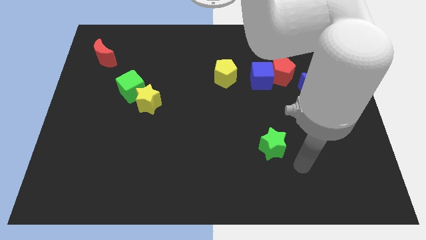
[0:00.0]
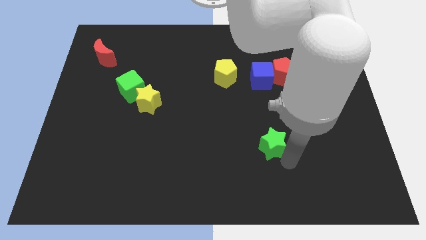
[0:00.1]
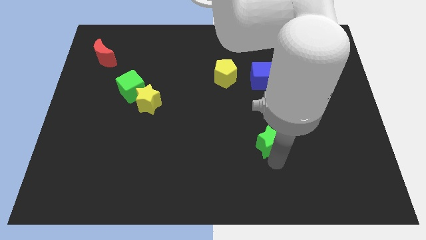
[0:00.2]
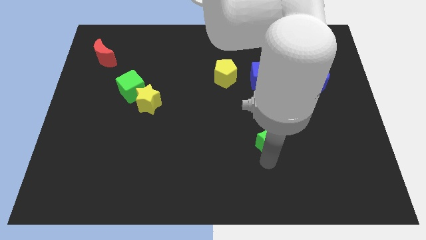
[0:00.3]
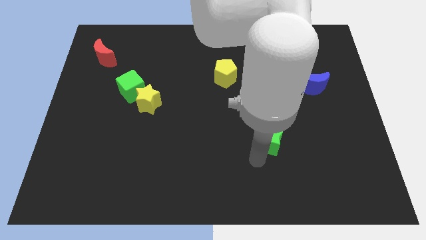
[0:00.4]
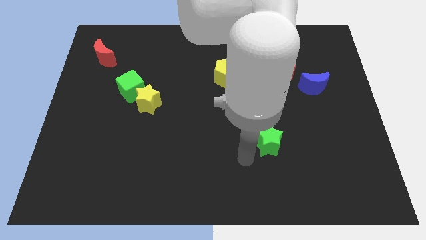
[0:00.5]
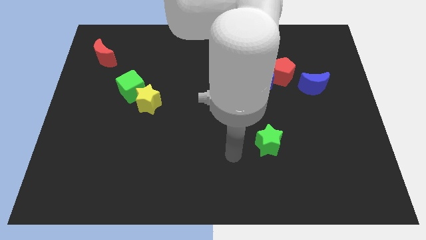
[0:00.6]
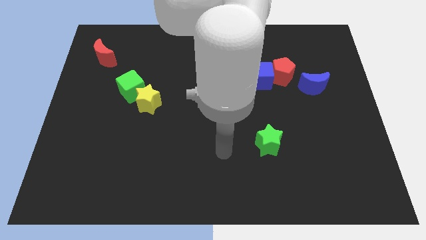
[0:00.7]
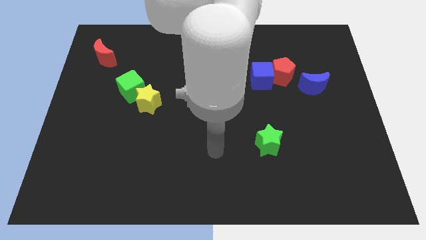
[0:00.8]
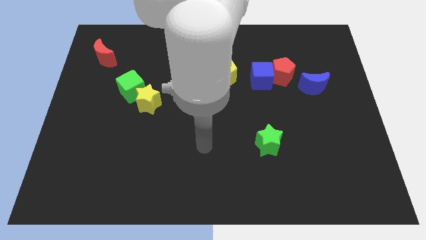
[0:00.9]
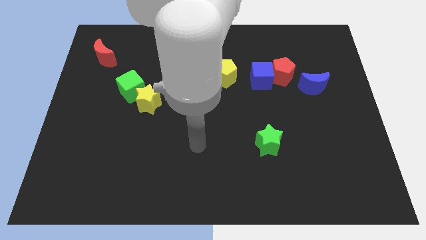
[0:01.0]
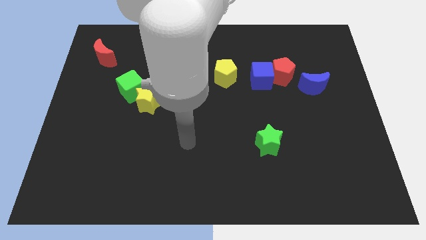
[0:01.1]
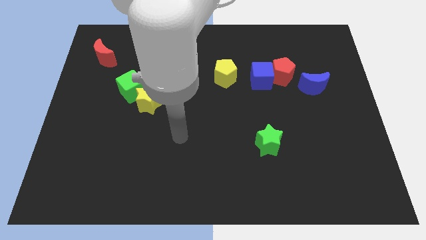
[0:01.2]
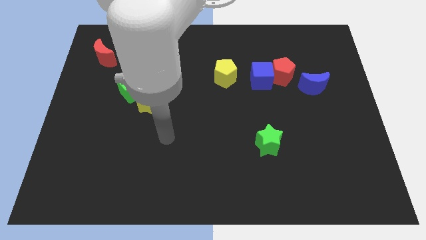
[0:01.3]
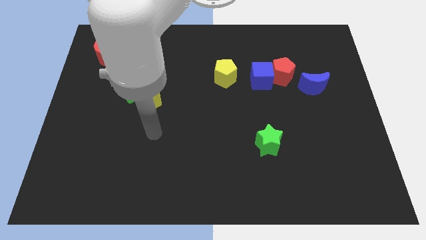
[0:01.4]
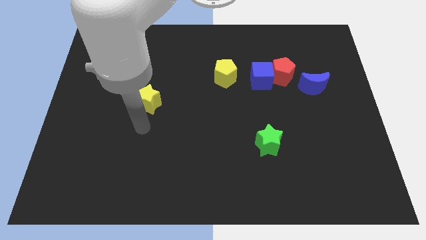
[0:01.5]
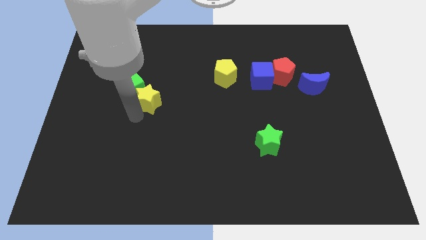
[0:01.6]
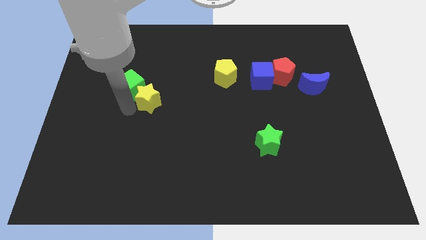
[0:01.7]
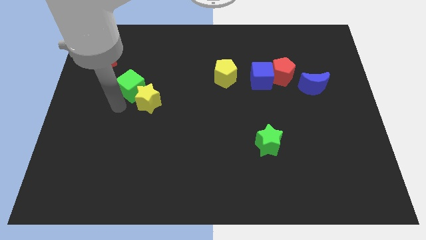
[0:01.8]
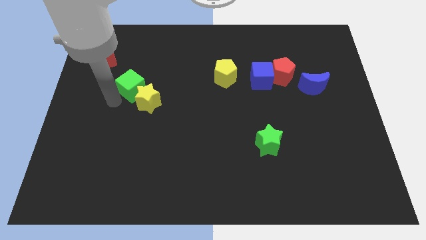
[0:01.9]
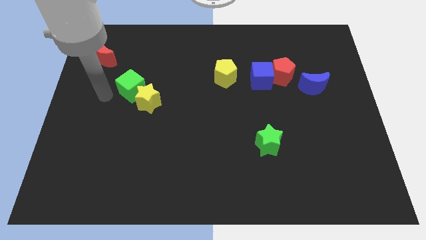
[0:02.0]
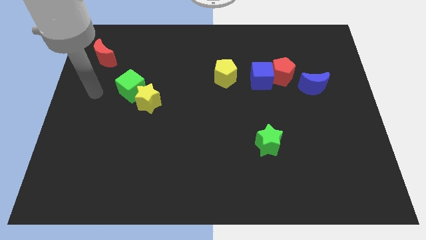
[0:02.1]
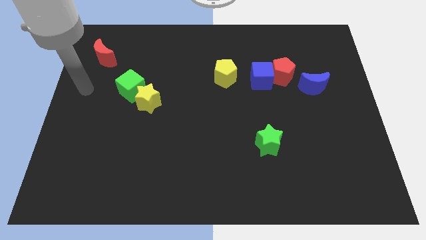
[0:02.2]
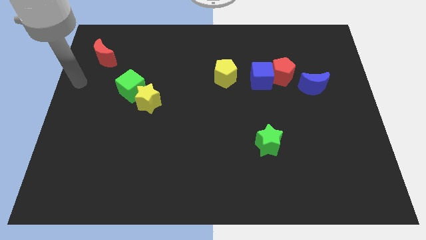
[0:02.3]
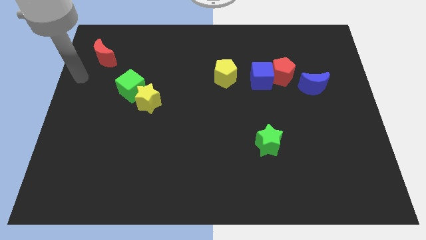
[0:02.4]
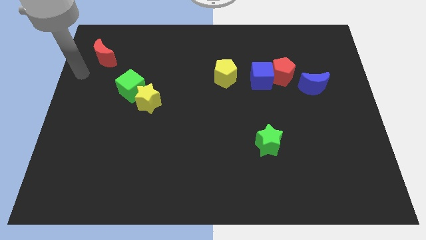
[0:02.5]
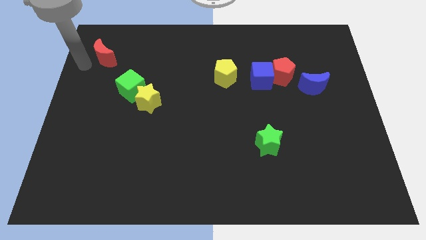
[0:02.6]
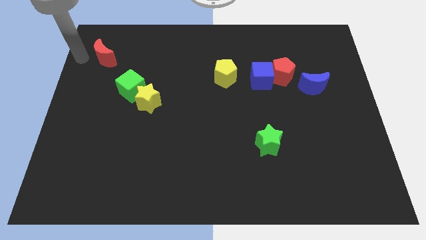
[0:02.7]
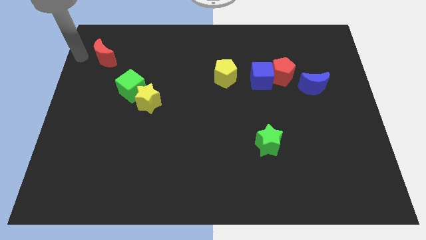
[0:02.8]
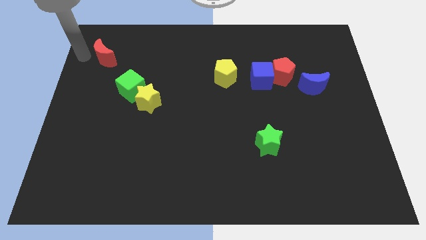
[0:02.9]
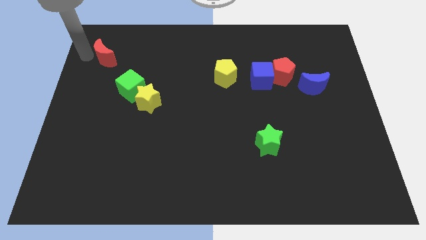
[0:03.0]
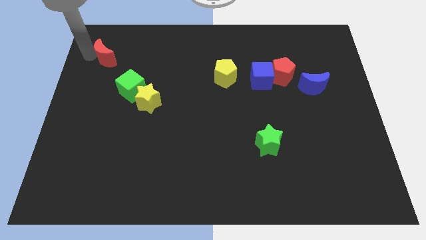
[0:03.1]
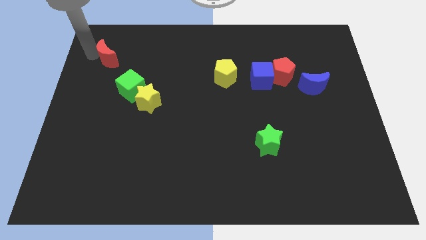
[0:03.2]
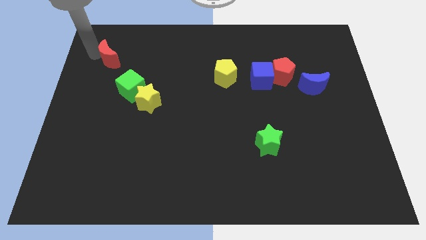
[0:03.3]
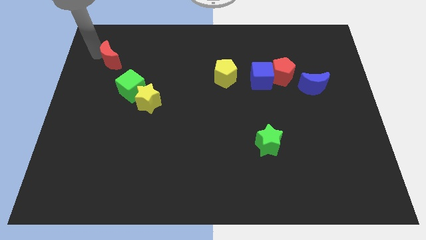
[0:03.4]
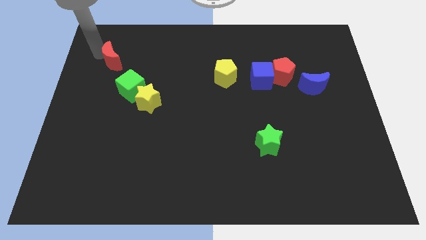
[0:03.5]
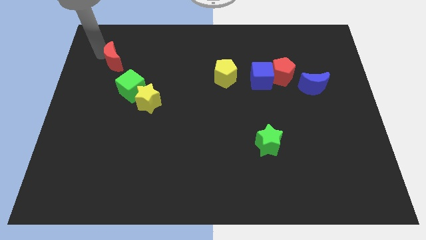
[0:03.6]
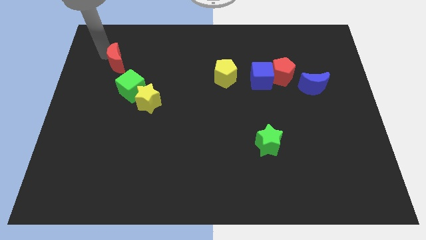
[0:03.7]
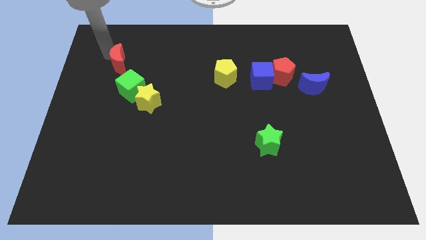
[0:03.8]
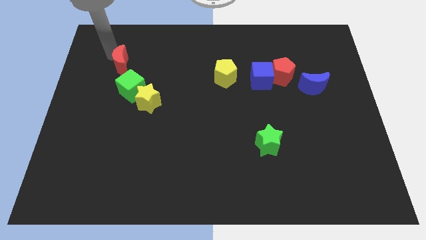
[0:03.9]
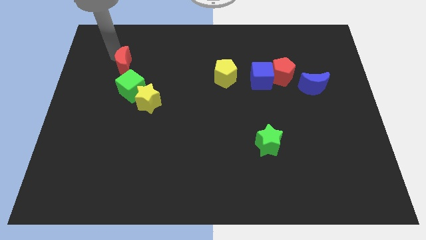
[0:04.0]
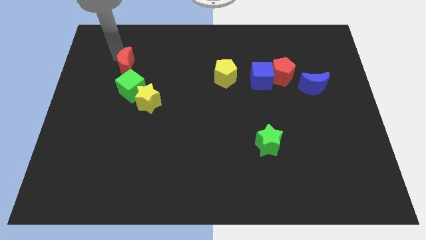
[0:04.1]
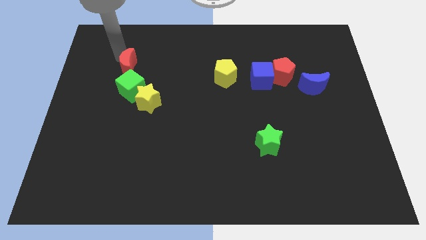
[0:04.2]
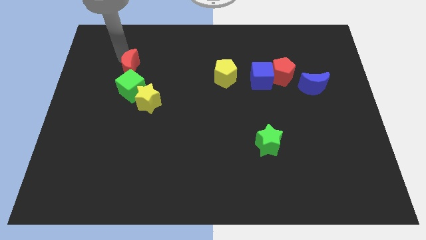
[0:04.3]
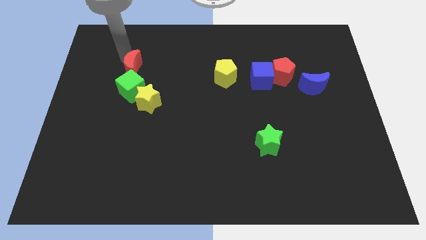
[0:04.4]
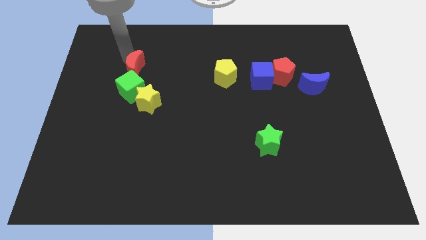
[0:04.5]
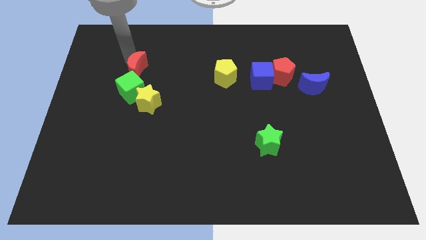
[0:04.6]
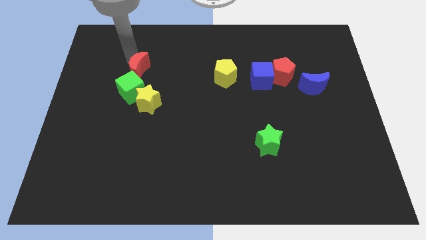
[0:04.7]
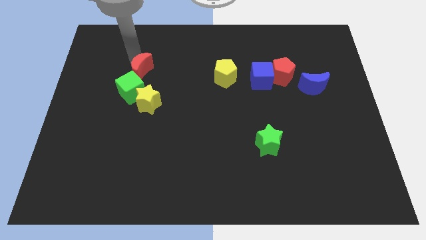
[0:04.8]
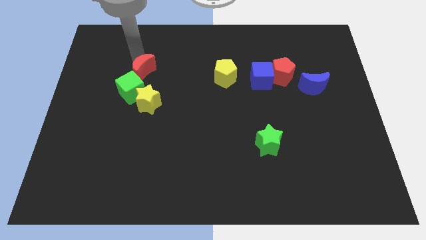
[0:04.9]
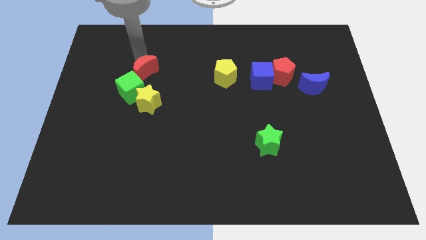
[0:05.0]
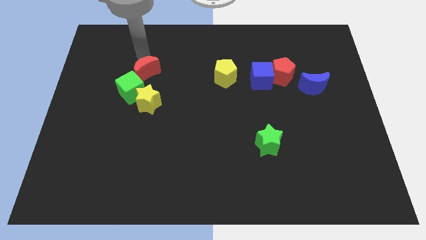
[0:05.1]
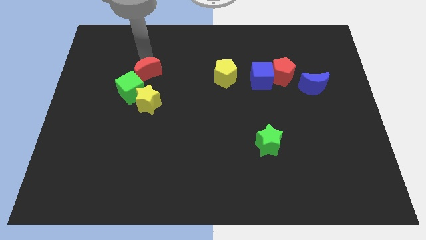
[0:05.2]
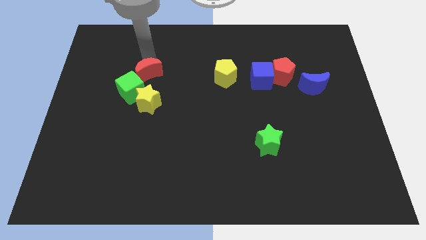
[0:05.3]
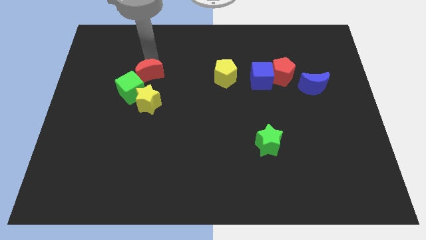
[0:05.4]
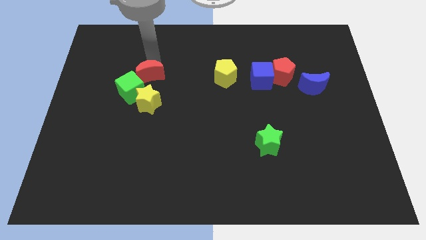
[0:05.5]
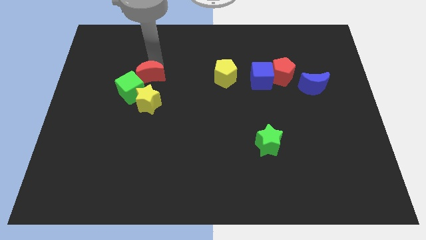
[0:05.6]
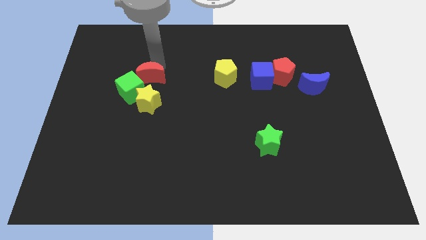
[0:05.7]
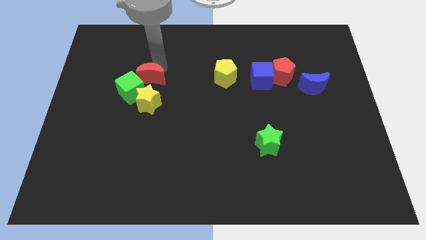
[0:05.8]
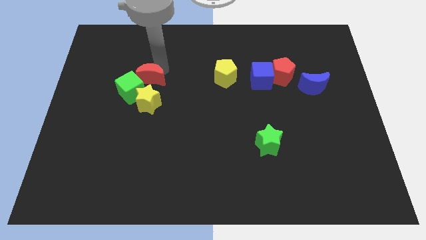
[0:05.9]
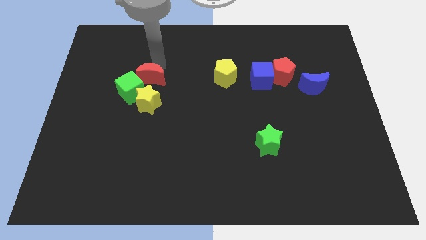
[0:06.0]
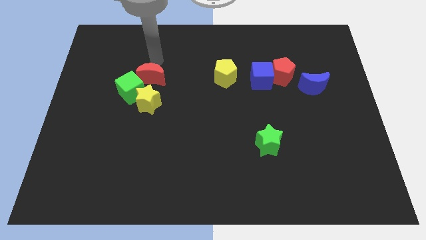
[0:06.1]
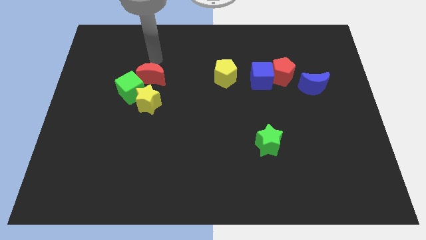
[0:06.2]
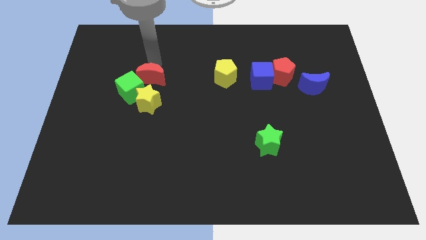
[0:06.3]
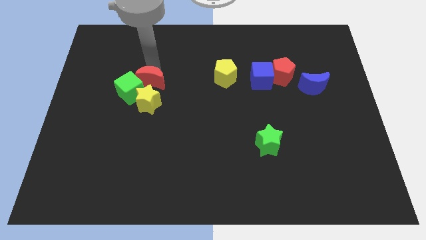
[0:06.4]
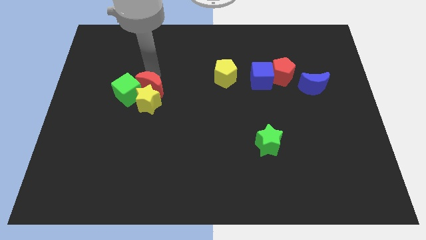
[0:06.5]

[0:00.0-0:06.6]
slide the red moon close to the yellow star

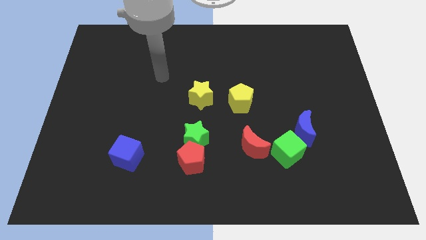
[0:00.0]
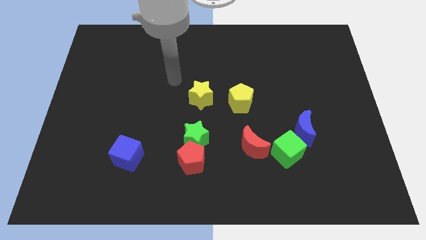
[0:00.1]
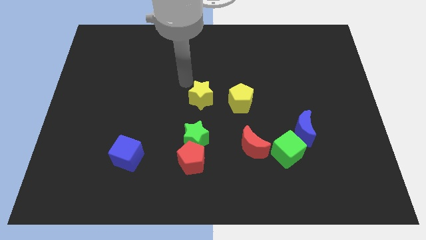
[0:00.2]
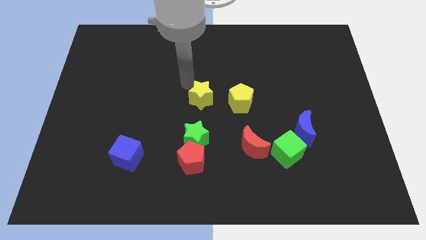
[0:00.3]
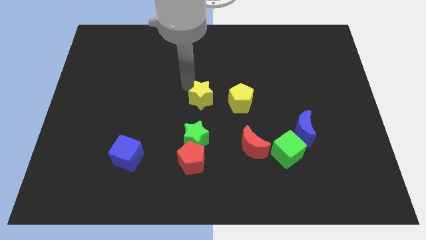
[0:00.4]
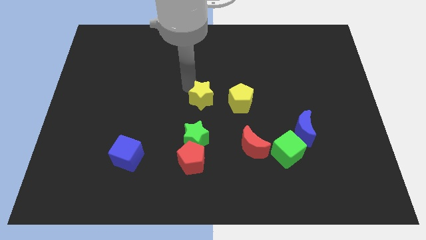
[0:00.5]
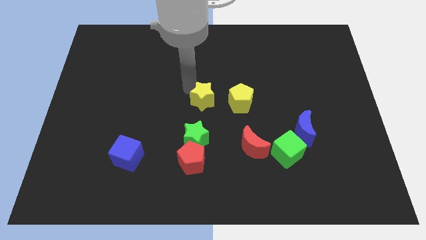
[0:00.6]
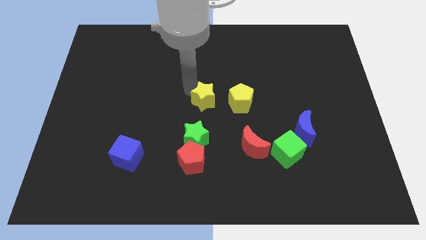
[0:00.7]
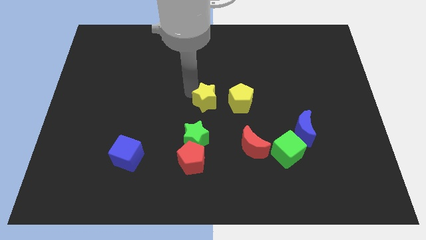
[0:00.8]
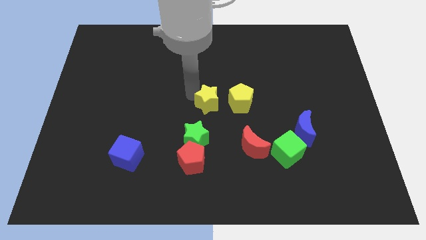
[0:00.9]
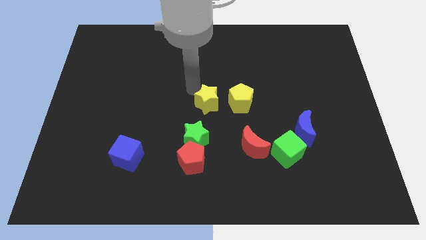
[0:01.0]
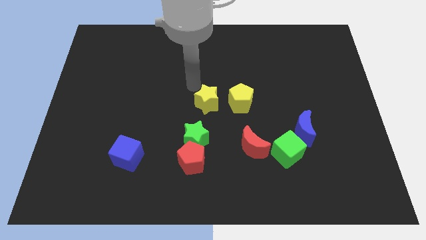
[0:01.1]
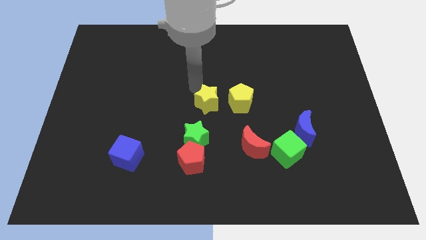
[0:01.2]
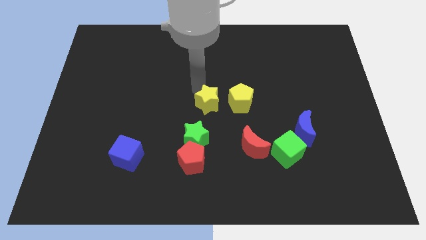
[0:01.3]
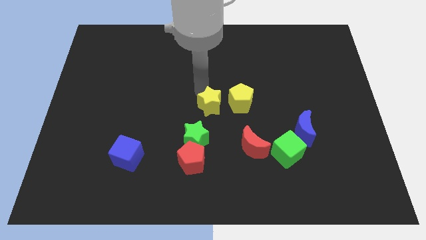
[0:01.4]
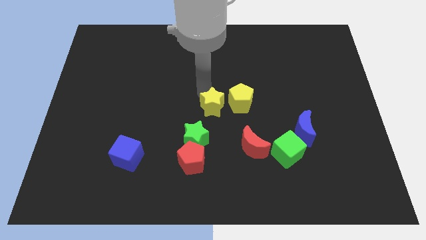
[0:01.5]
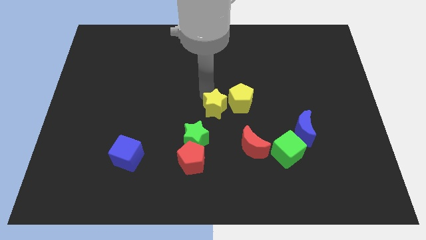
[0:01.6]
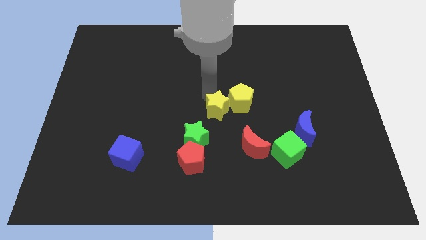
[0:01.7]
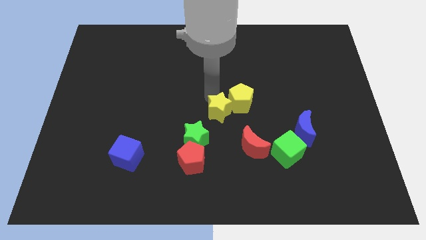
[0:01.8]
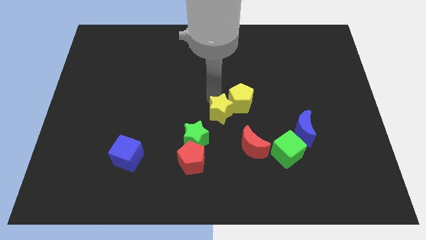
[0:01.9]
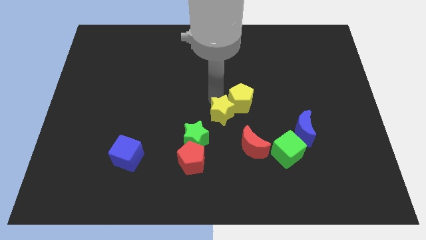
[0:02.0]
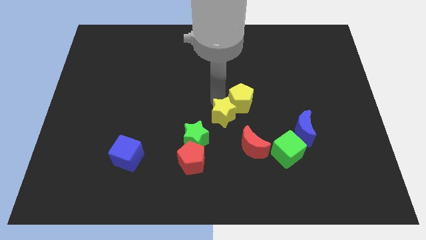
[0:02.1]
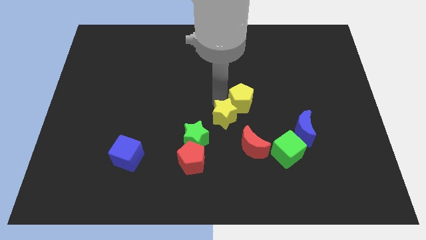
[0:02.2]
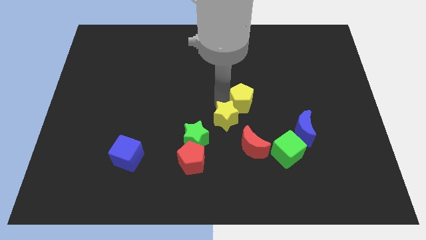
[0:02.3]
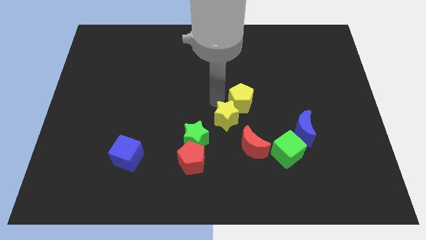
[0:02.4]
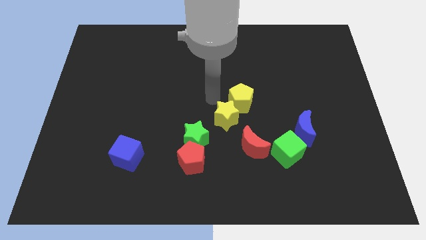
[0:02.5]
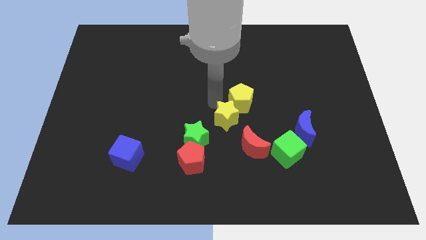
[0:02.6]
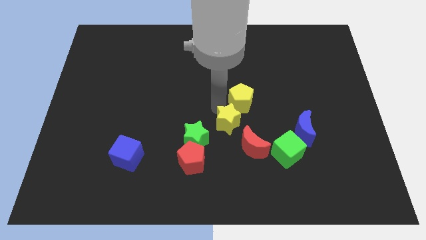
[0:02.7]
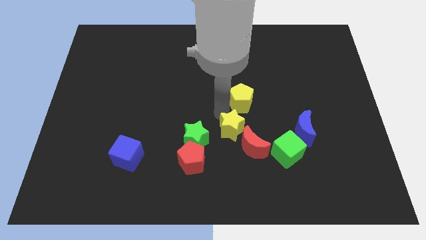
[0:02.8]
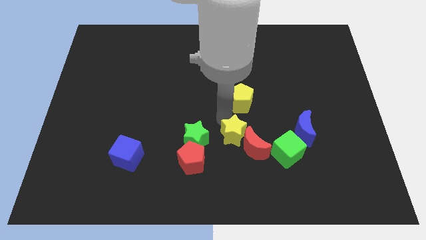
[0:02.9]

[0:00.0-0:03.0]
slide the yellow star next to the red moon
